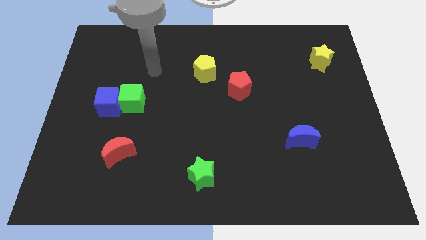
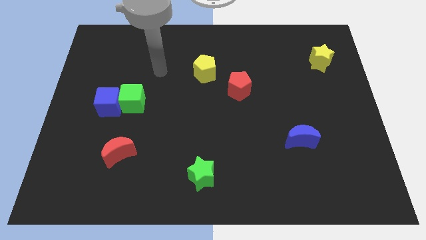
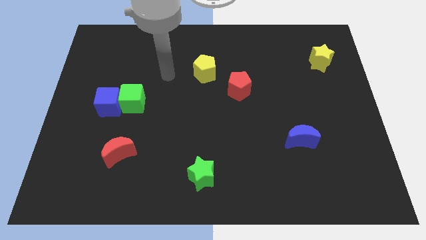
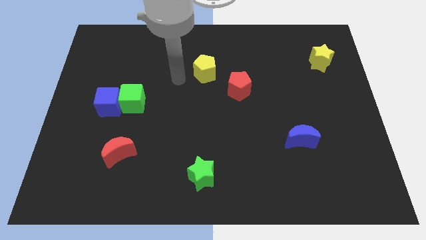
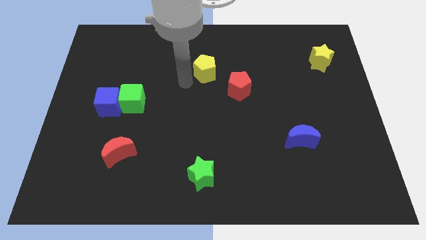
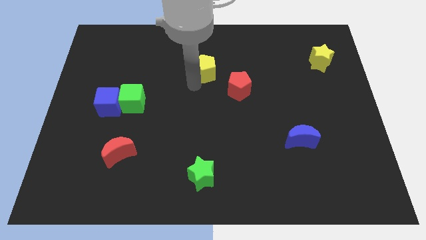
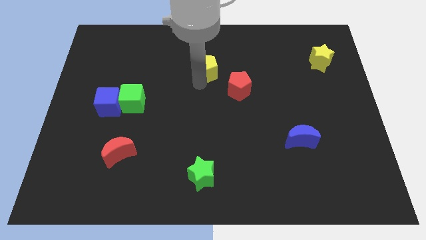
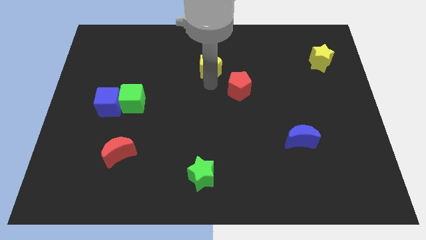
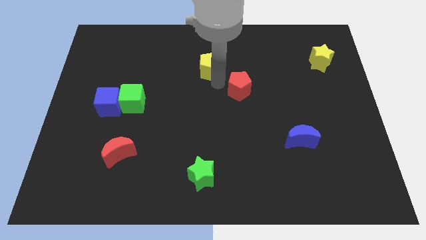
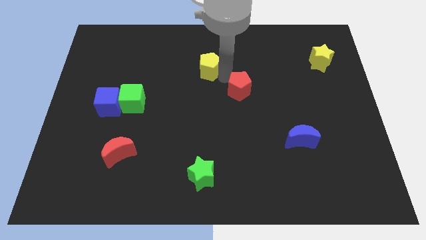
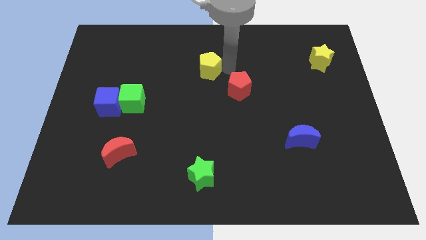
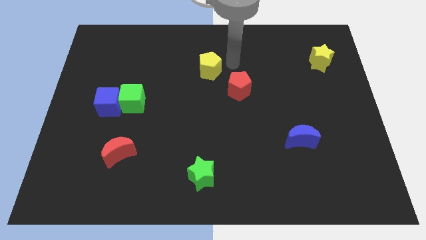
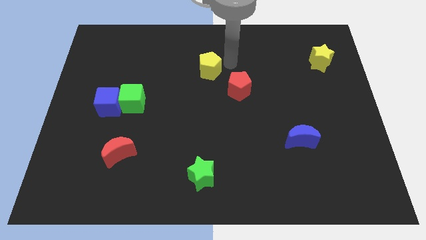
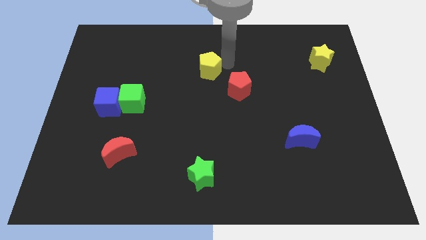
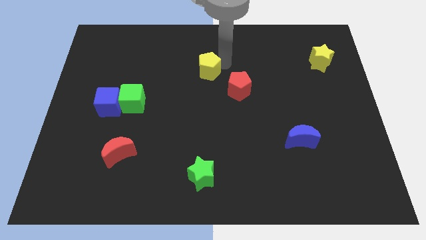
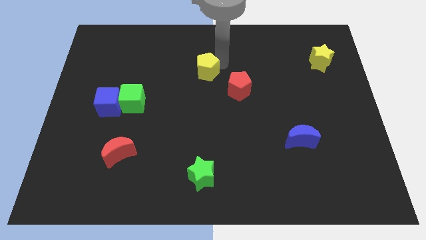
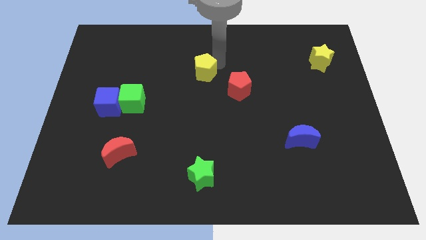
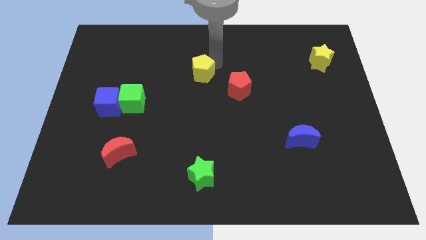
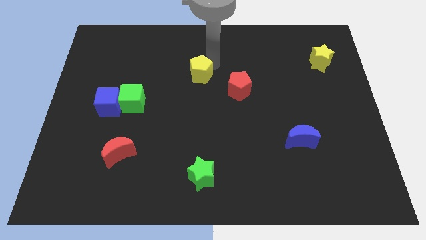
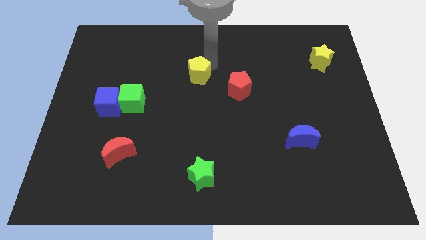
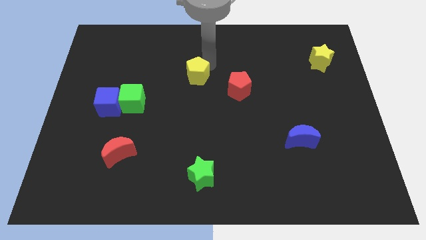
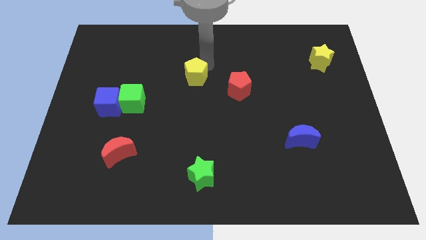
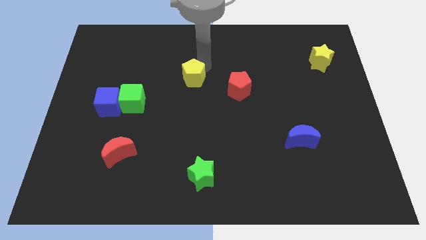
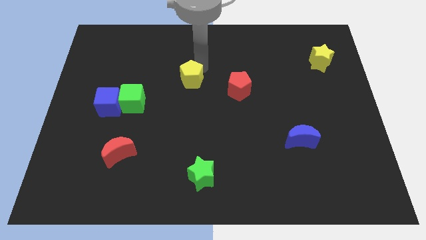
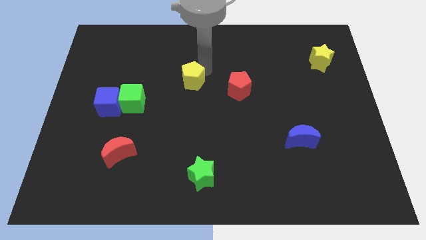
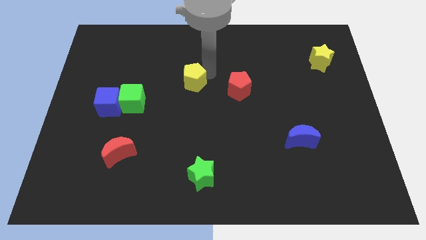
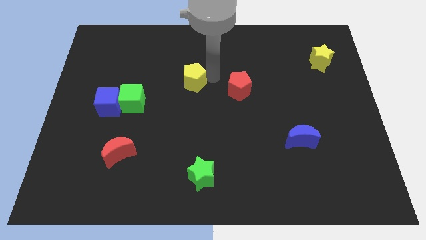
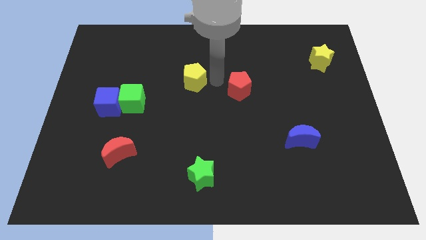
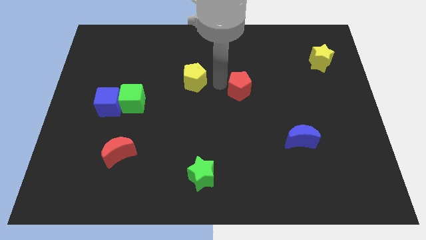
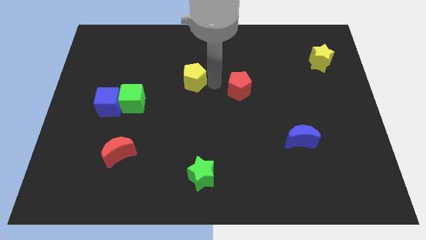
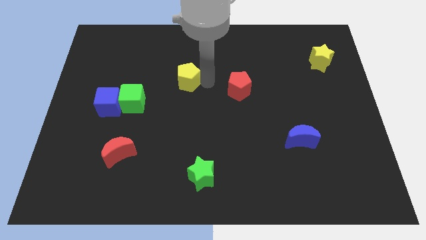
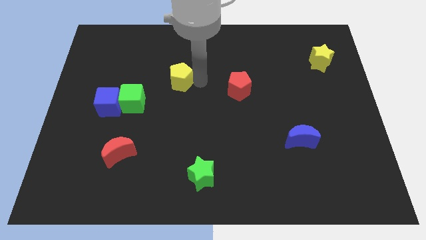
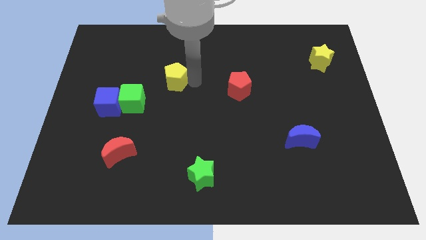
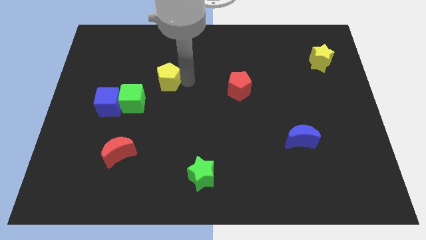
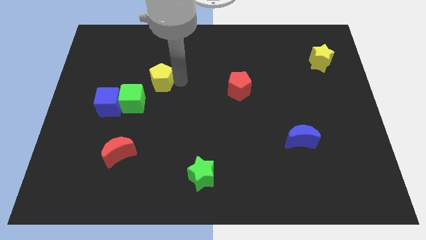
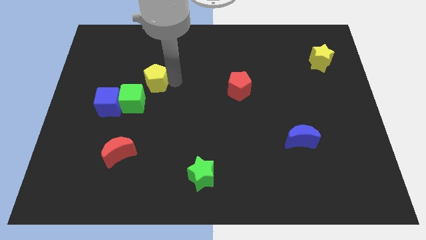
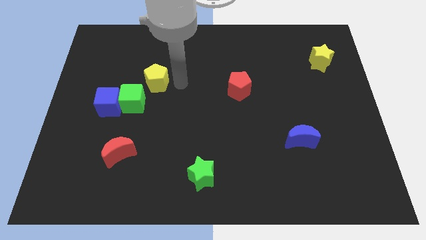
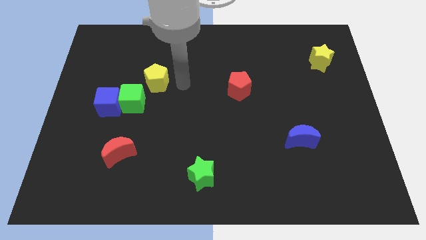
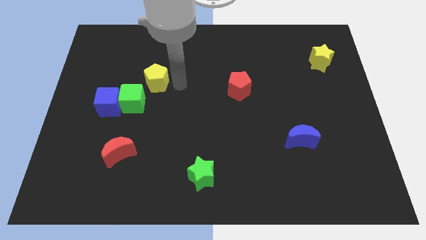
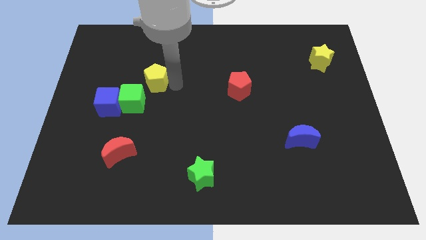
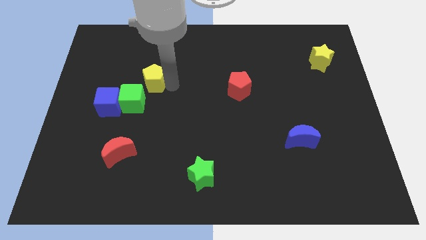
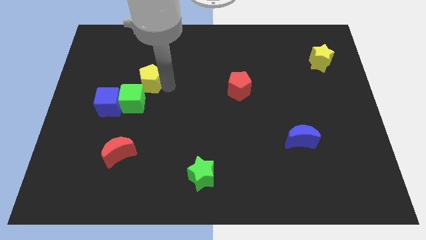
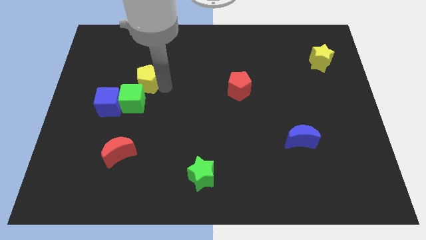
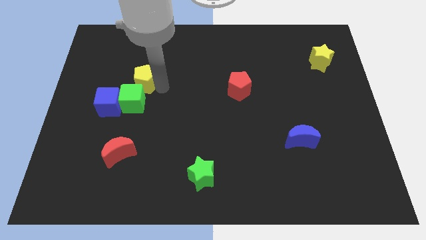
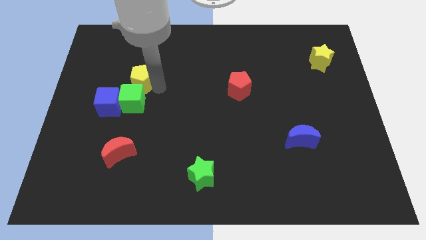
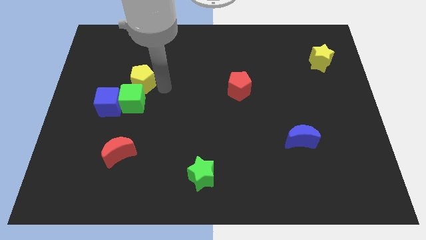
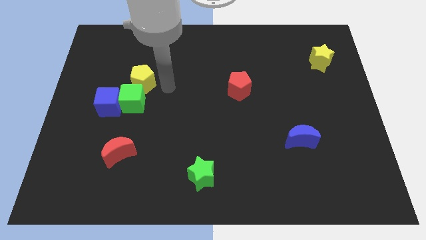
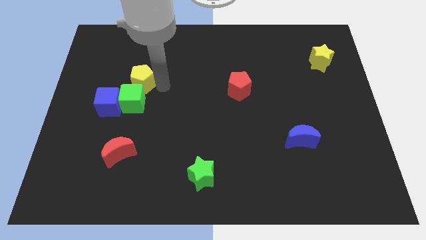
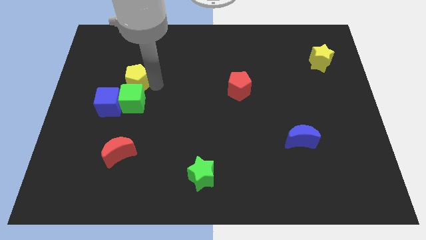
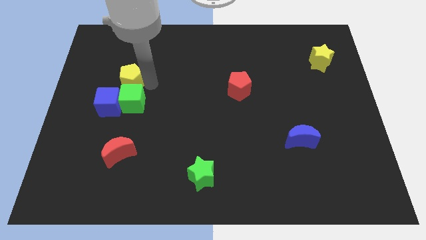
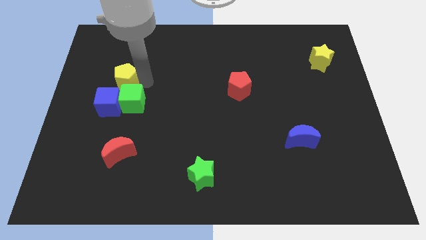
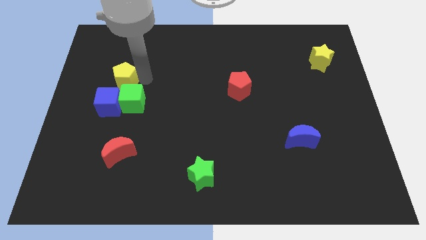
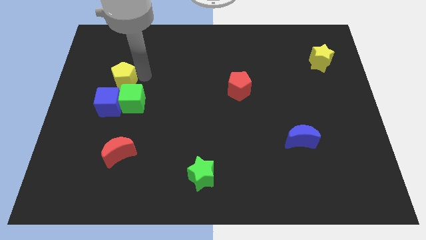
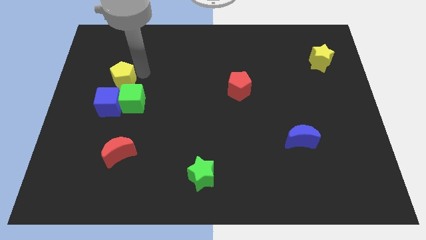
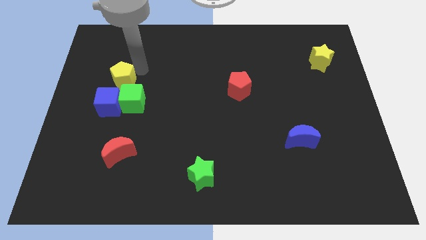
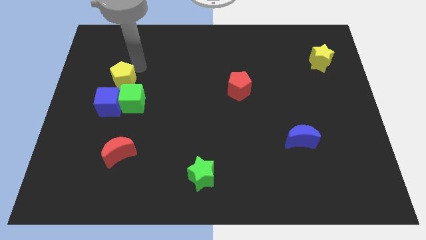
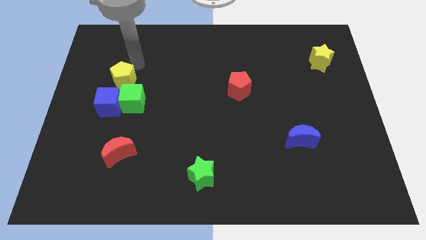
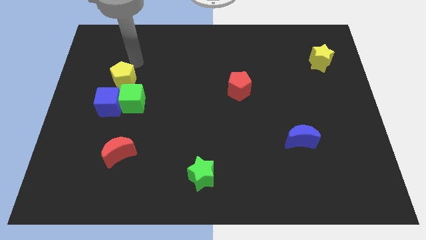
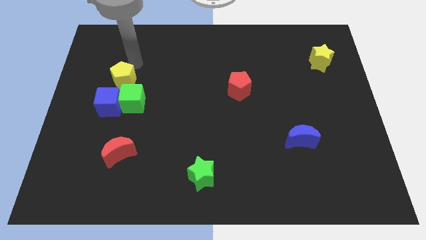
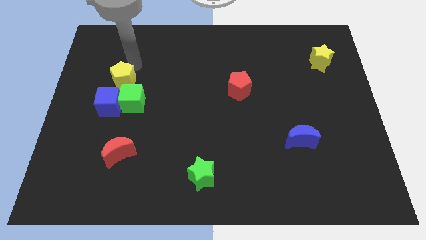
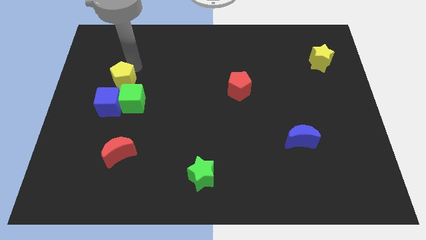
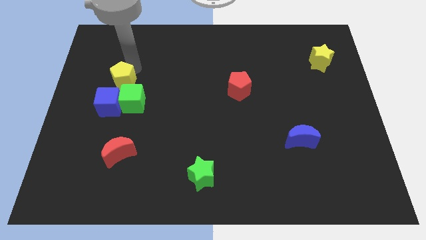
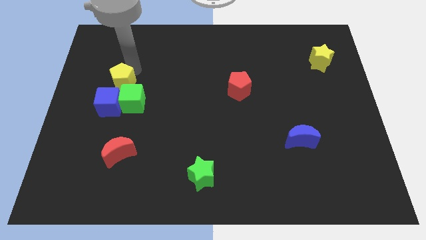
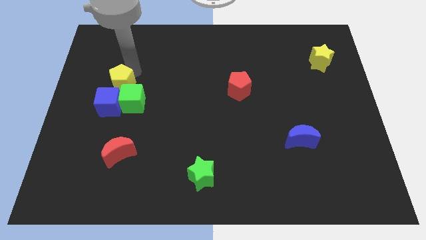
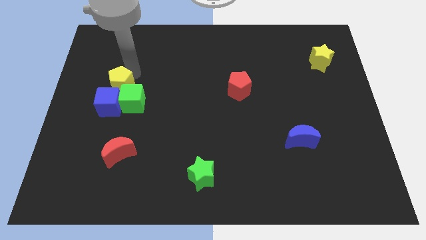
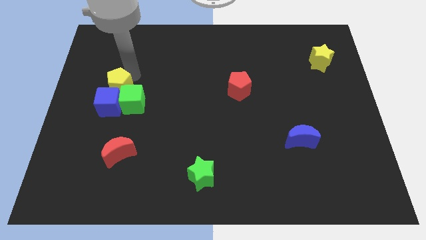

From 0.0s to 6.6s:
move the yellow pentagon towards the blue cube

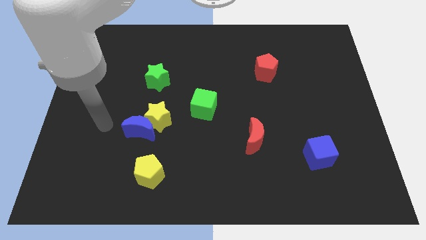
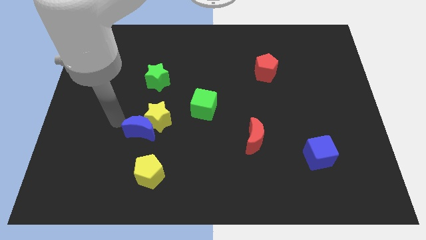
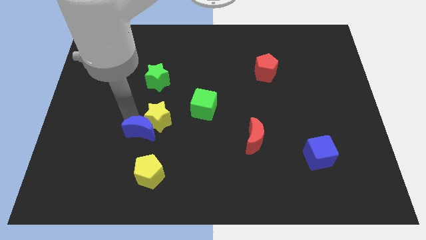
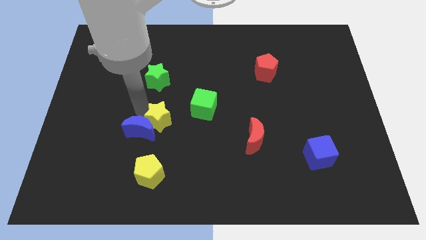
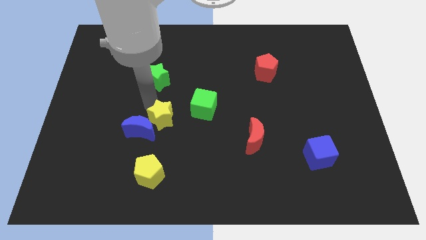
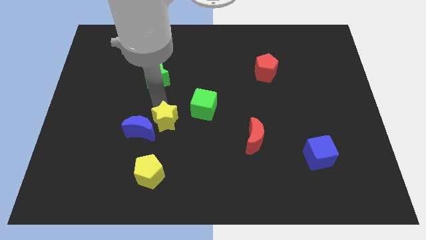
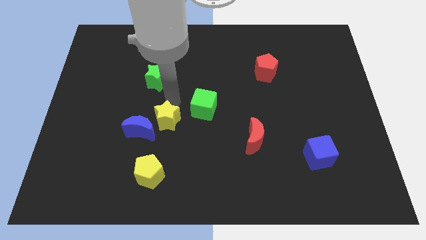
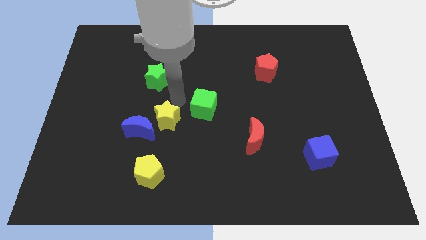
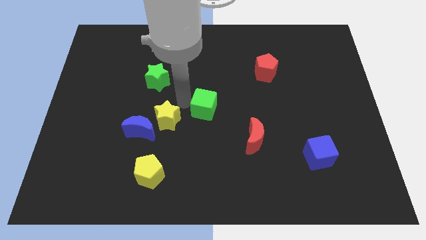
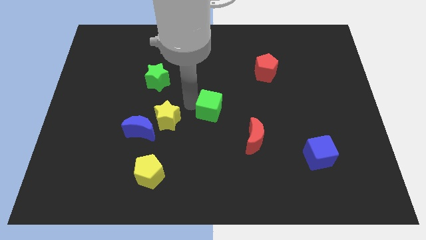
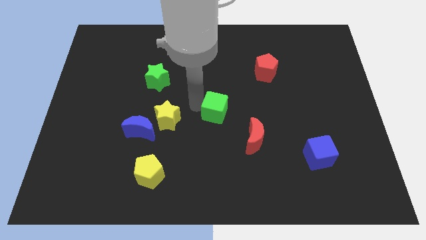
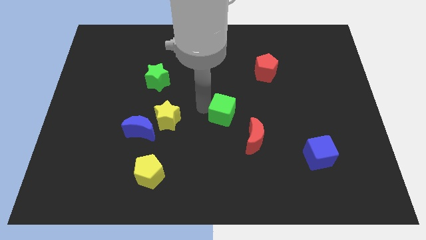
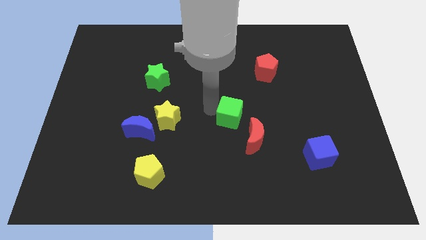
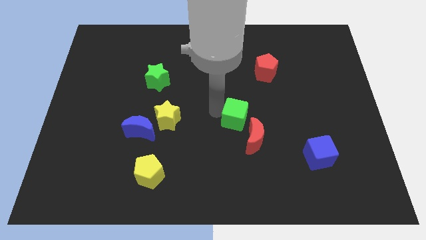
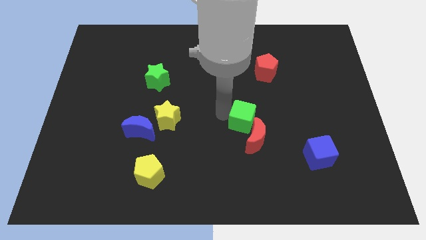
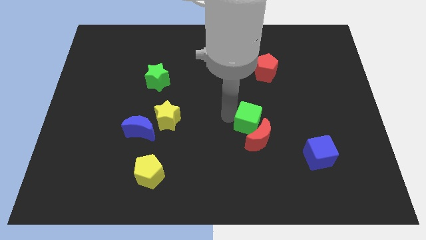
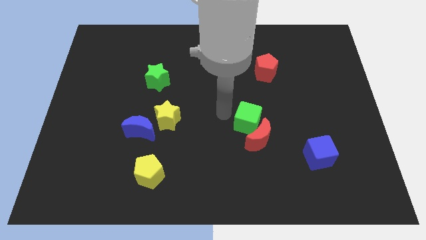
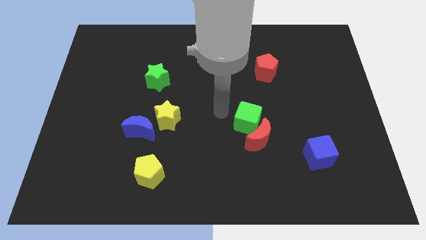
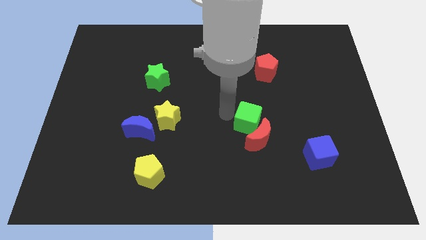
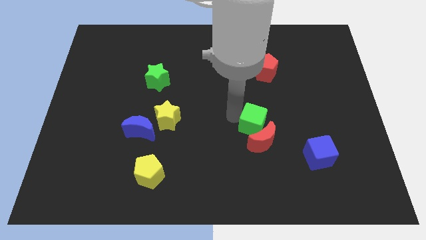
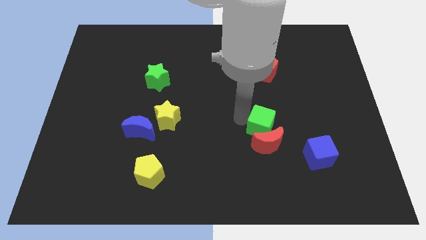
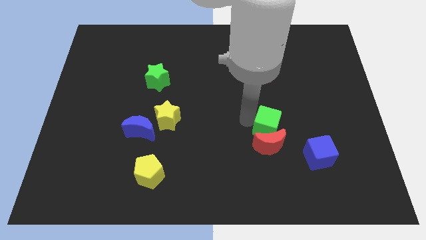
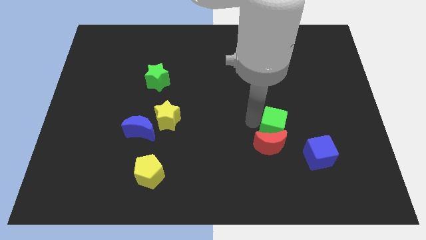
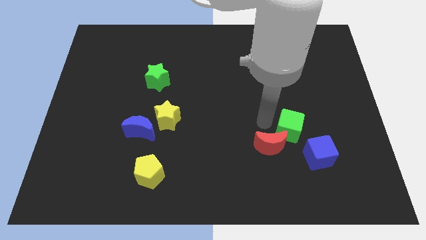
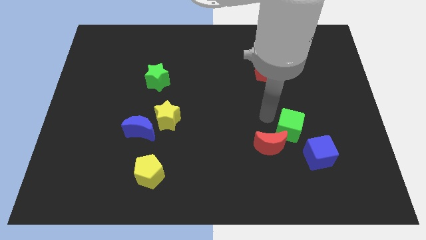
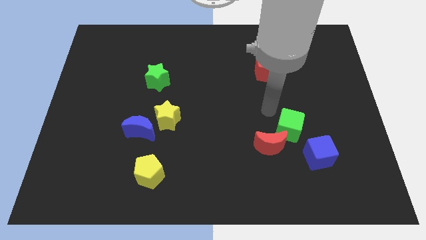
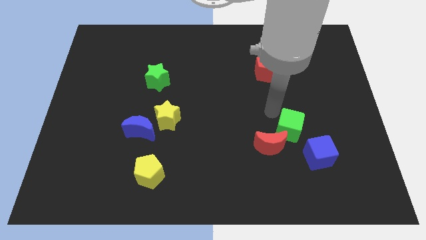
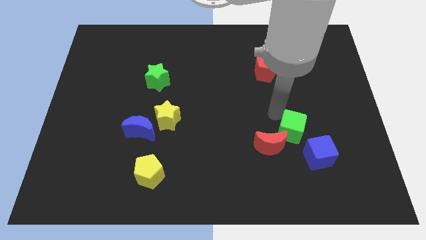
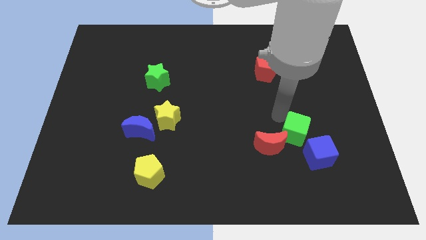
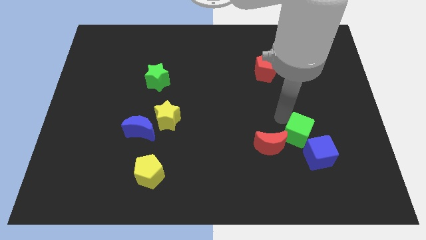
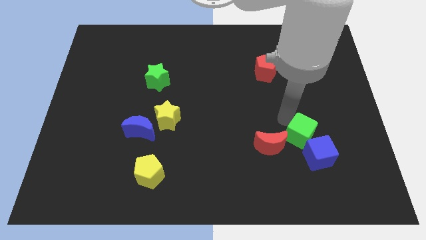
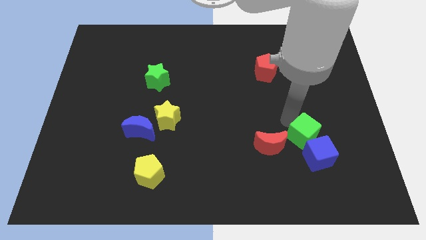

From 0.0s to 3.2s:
move the green cube towards the blue cube
